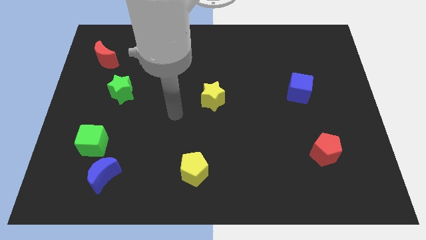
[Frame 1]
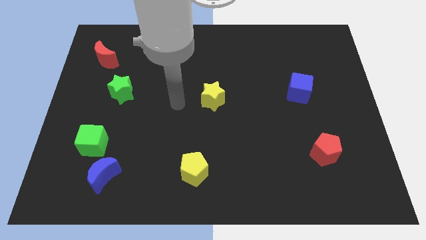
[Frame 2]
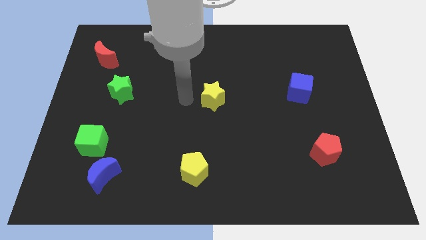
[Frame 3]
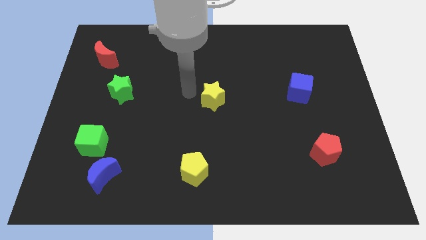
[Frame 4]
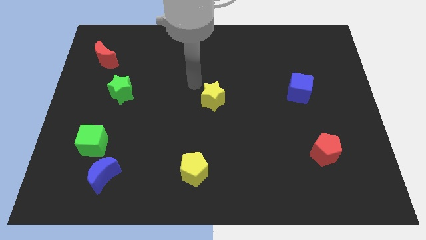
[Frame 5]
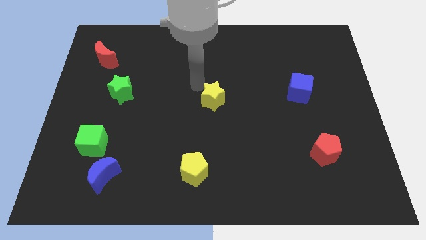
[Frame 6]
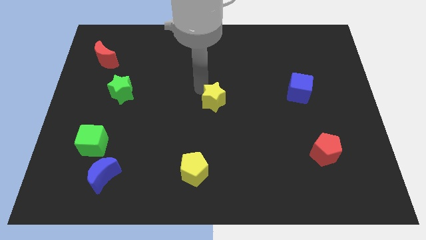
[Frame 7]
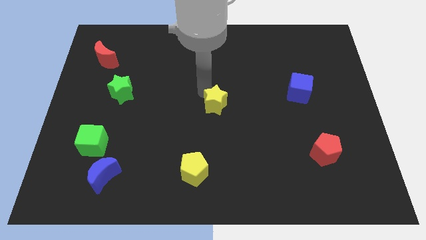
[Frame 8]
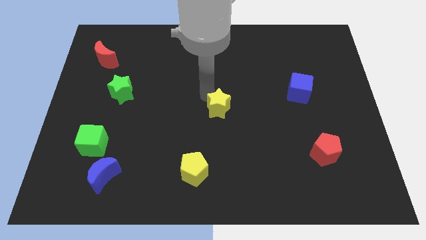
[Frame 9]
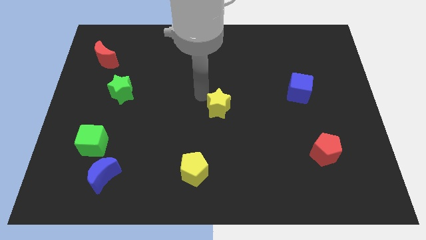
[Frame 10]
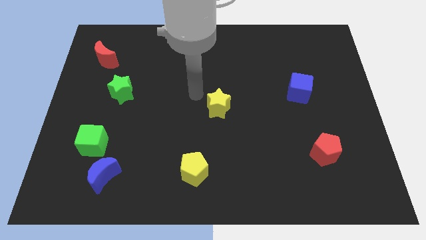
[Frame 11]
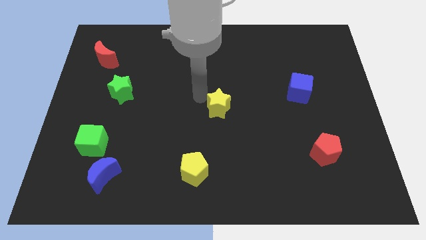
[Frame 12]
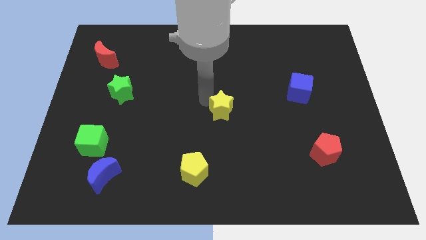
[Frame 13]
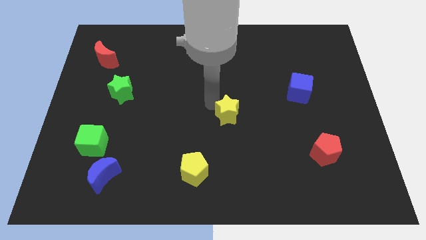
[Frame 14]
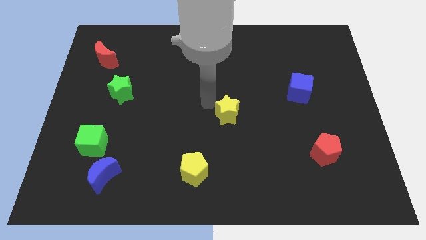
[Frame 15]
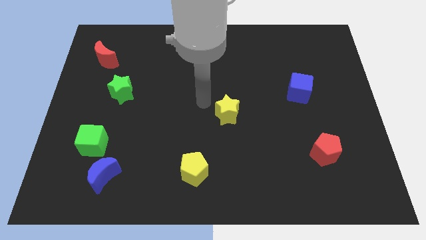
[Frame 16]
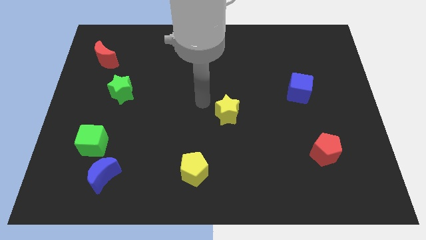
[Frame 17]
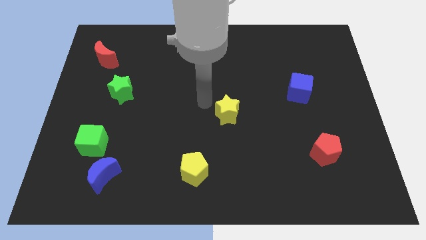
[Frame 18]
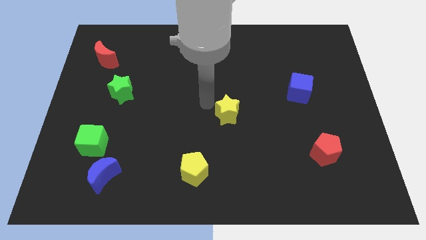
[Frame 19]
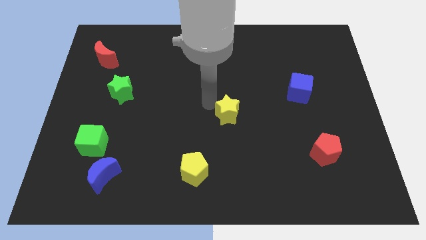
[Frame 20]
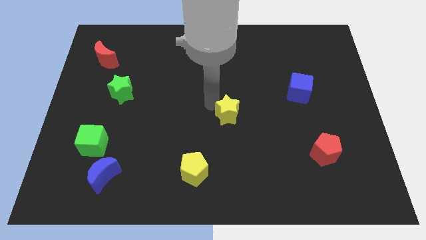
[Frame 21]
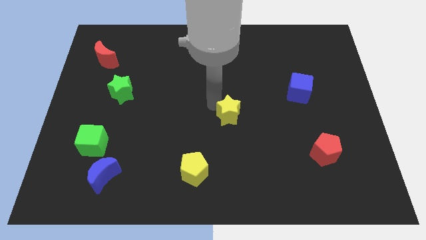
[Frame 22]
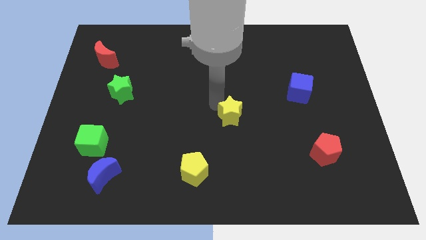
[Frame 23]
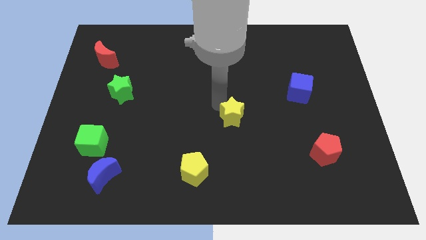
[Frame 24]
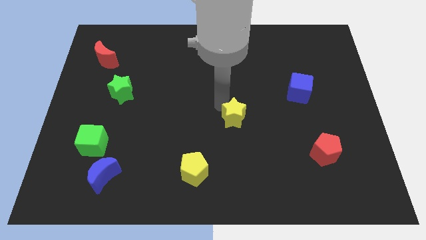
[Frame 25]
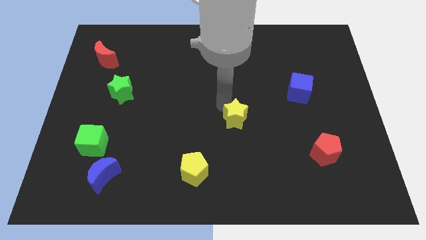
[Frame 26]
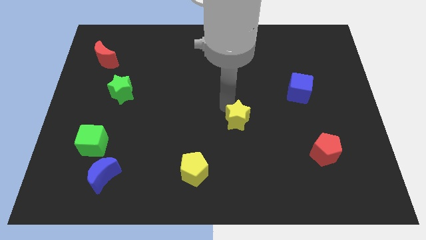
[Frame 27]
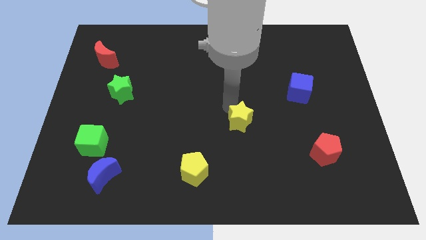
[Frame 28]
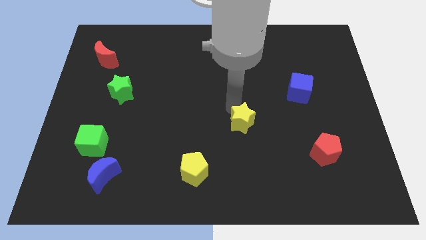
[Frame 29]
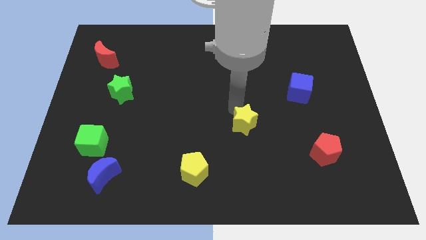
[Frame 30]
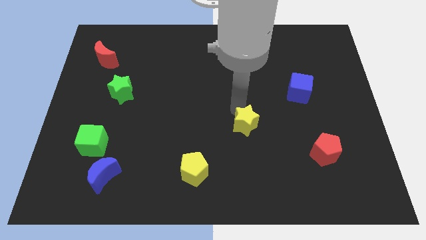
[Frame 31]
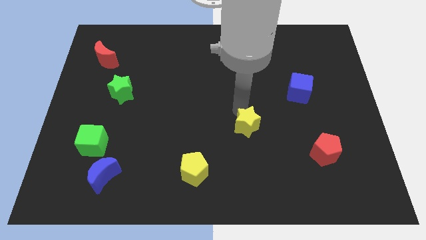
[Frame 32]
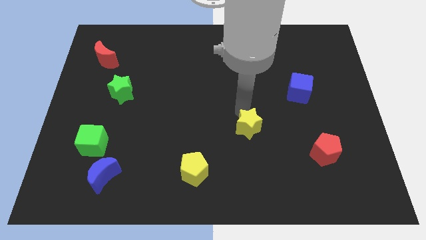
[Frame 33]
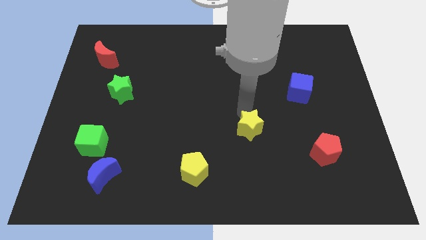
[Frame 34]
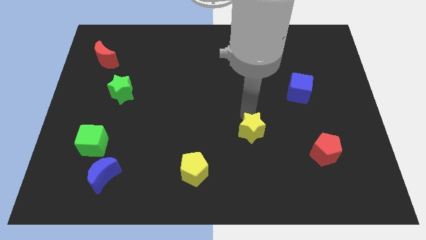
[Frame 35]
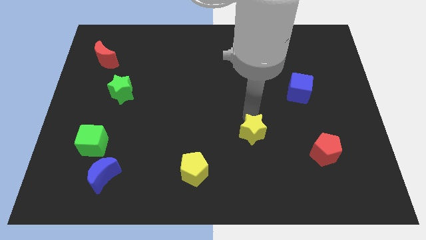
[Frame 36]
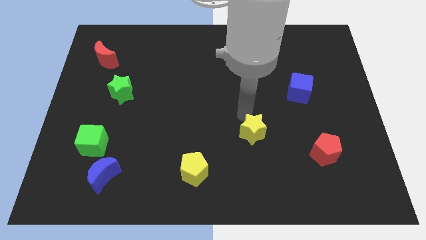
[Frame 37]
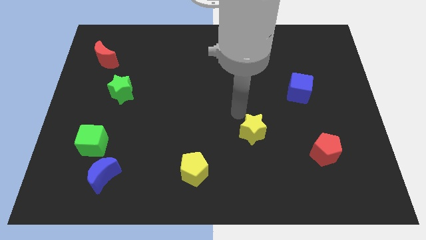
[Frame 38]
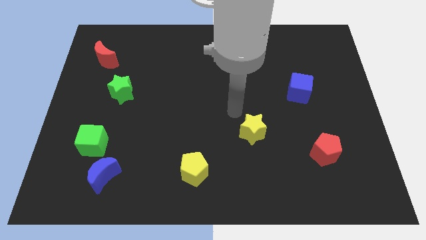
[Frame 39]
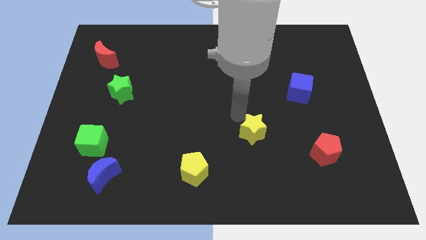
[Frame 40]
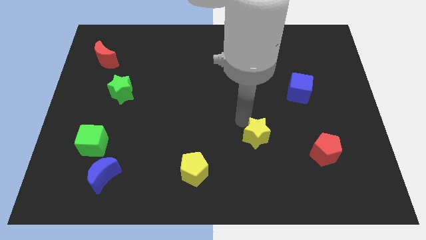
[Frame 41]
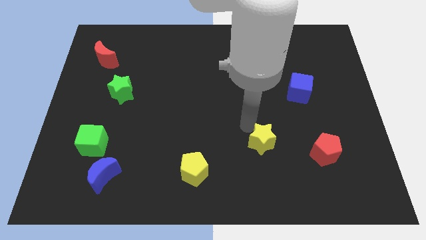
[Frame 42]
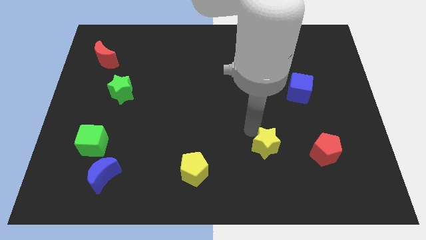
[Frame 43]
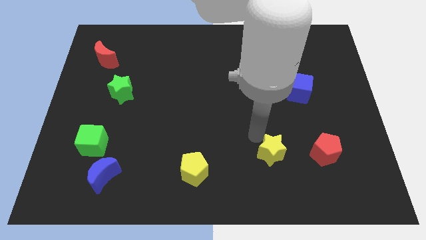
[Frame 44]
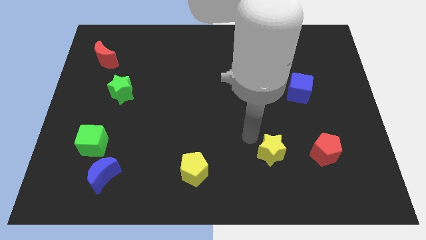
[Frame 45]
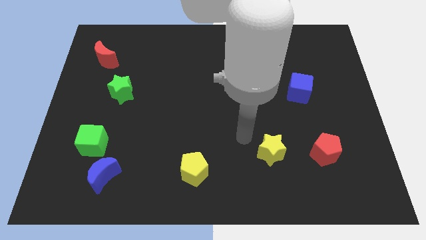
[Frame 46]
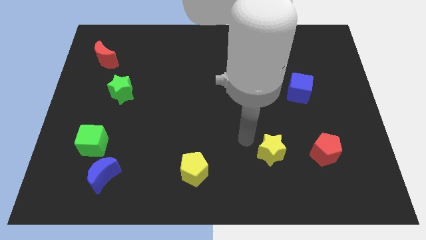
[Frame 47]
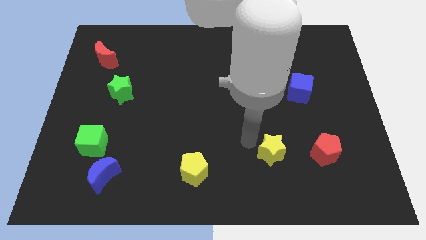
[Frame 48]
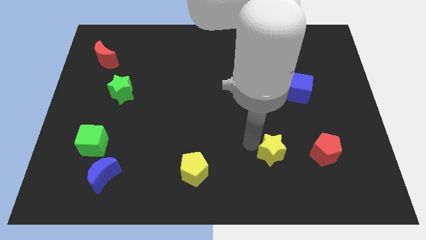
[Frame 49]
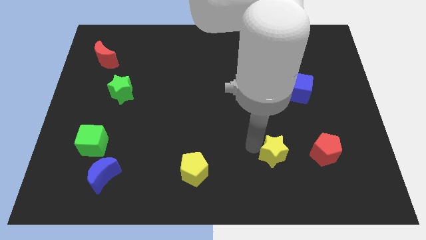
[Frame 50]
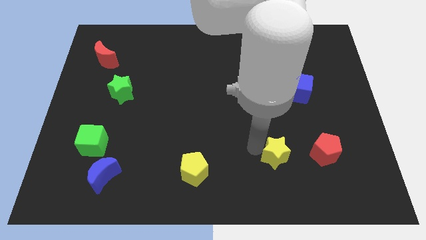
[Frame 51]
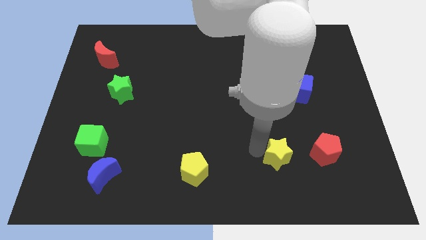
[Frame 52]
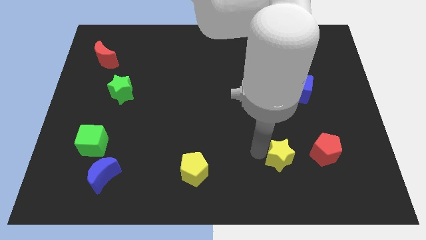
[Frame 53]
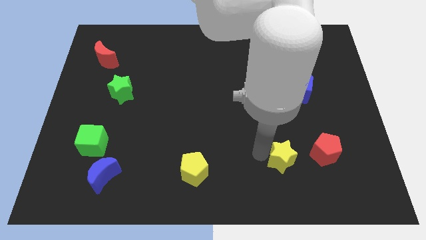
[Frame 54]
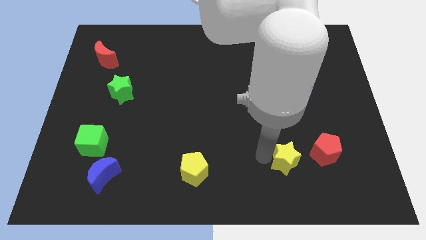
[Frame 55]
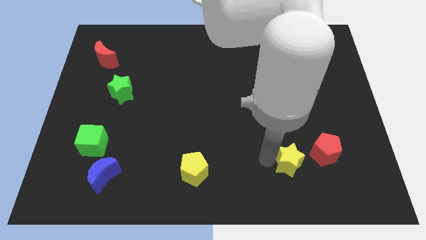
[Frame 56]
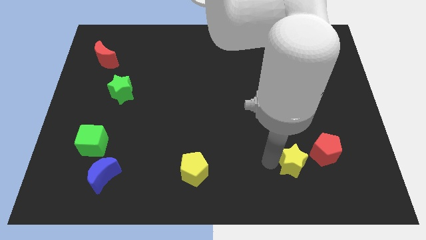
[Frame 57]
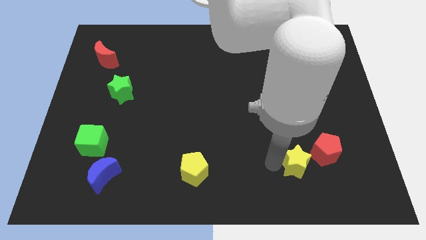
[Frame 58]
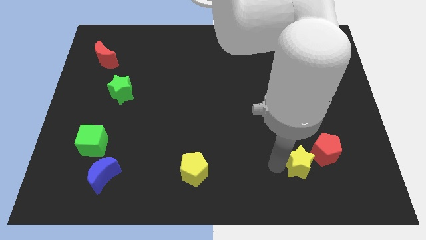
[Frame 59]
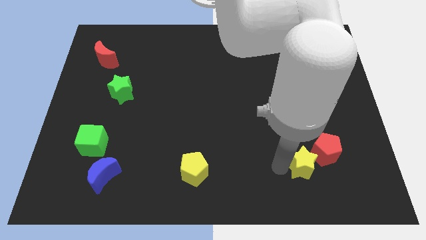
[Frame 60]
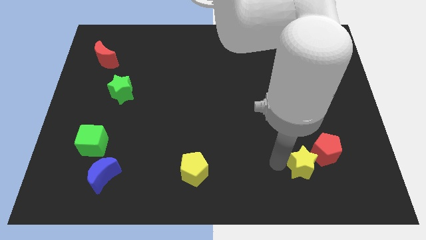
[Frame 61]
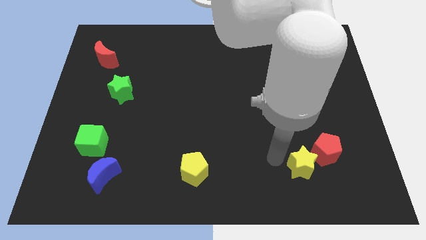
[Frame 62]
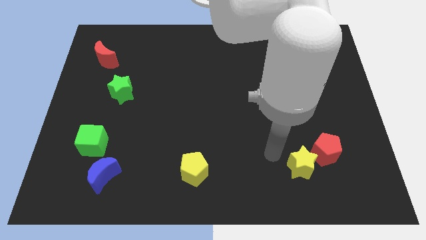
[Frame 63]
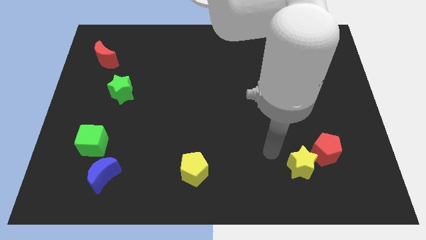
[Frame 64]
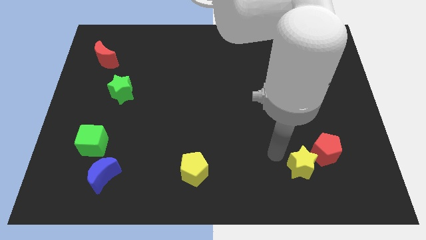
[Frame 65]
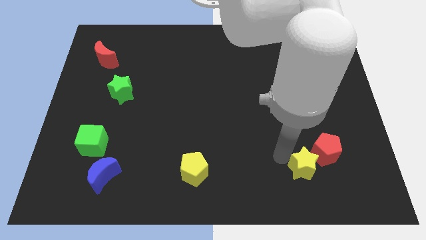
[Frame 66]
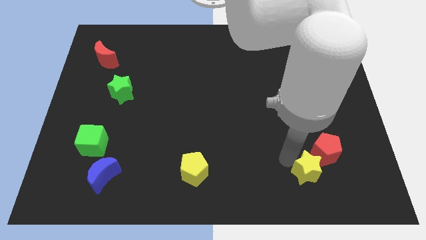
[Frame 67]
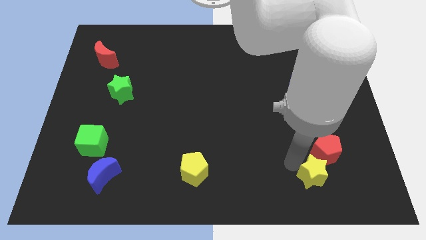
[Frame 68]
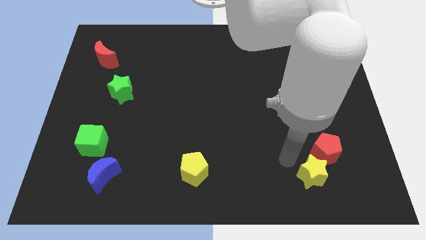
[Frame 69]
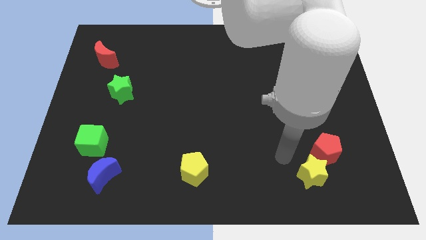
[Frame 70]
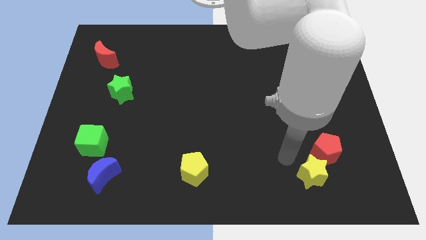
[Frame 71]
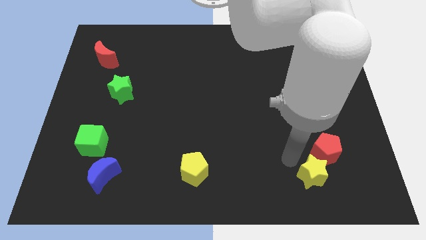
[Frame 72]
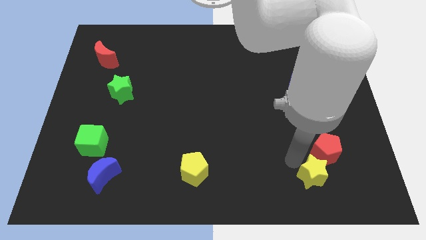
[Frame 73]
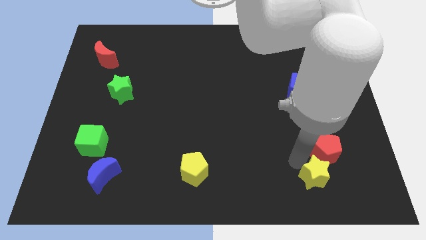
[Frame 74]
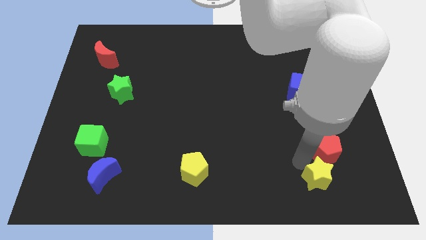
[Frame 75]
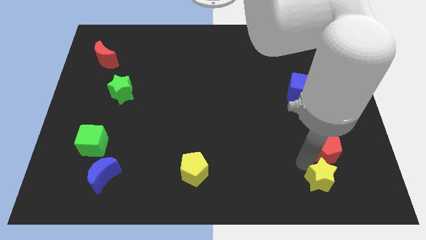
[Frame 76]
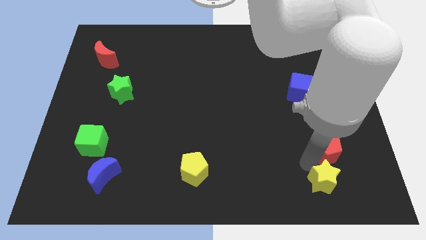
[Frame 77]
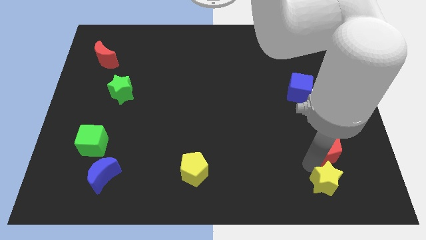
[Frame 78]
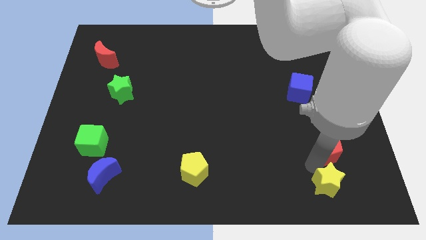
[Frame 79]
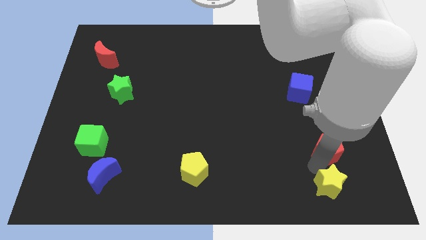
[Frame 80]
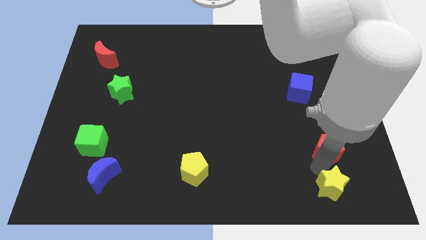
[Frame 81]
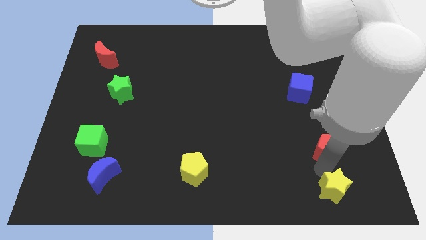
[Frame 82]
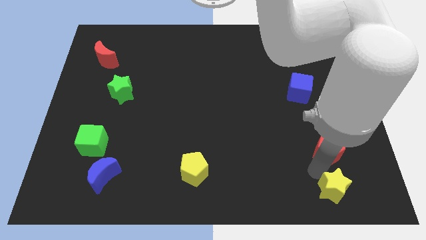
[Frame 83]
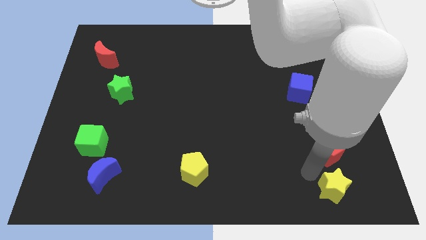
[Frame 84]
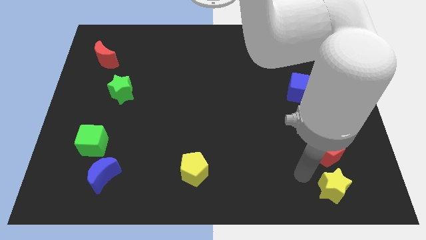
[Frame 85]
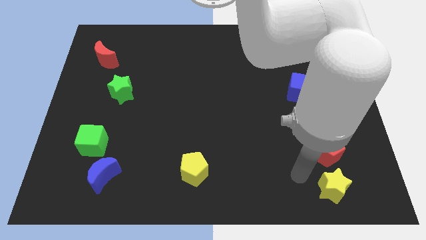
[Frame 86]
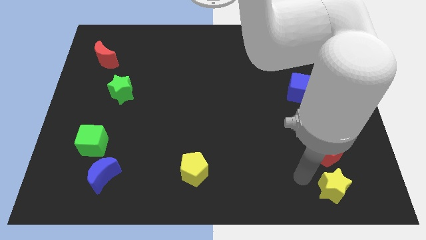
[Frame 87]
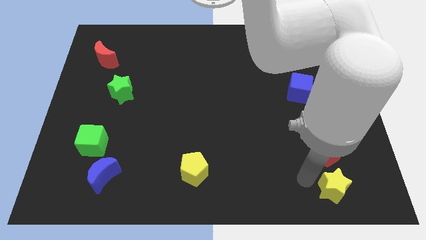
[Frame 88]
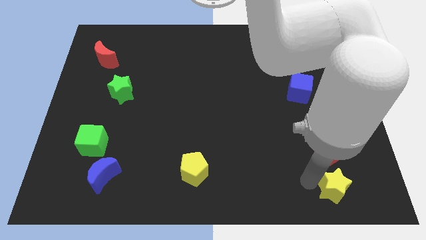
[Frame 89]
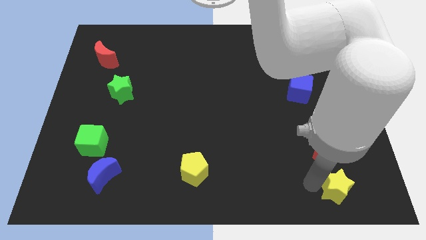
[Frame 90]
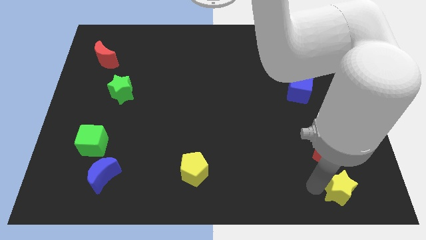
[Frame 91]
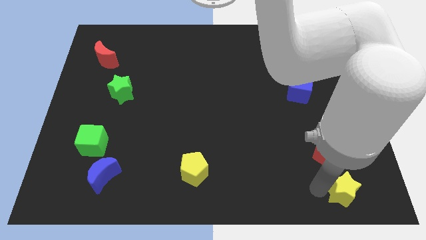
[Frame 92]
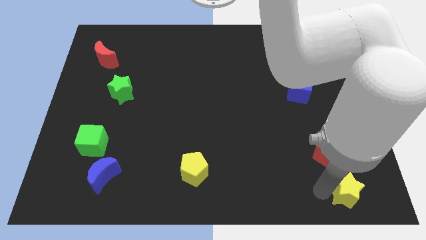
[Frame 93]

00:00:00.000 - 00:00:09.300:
put the yellow star to the bottom right
